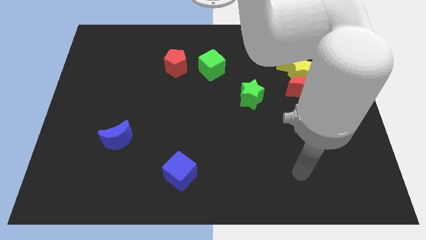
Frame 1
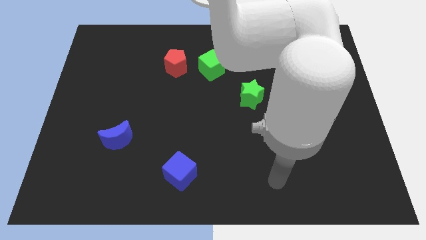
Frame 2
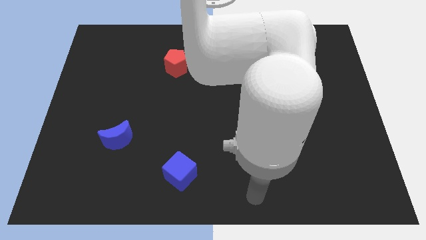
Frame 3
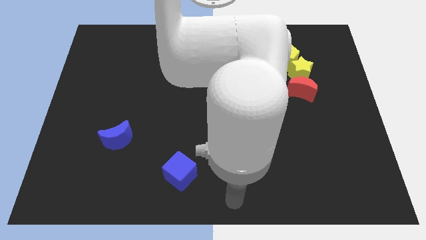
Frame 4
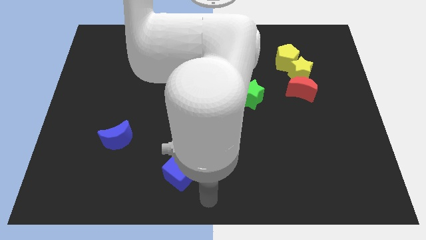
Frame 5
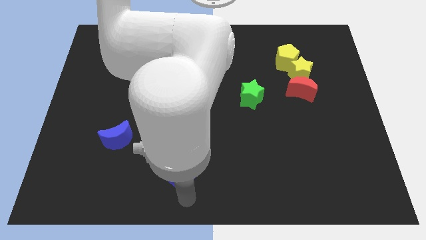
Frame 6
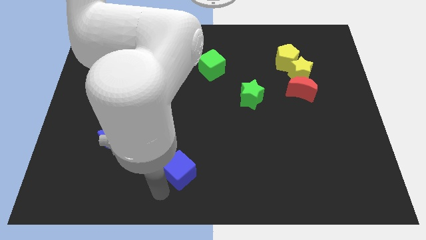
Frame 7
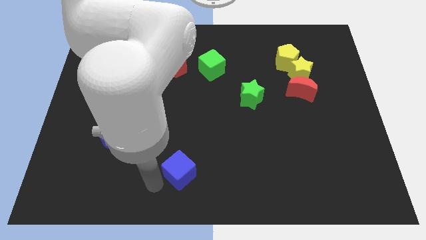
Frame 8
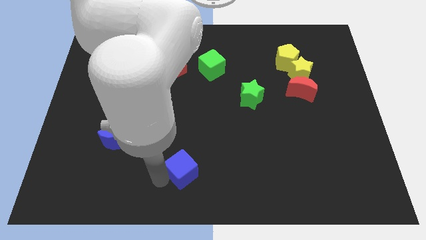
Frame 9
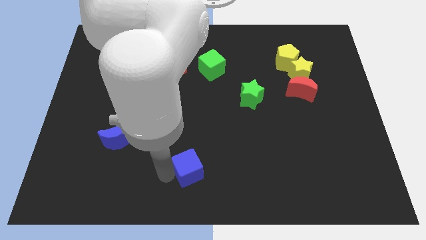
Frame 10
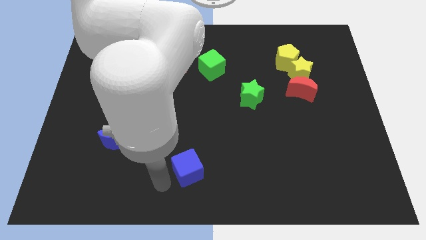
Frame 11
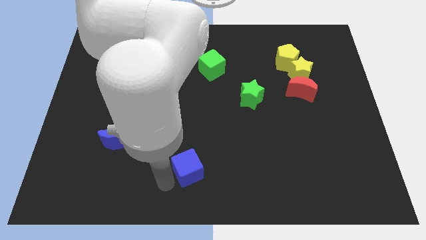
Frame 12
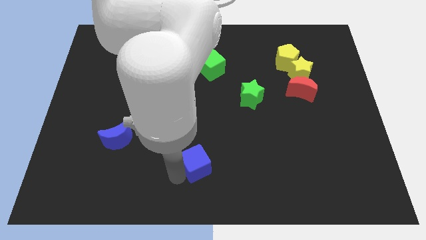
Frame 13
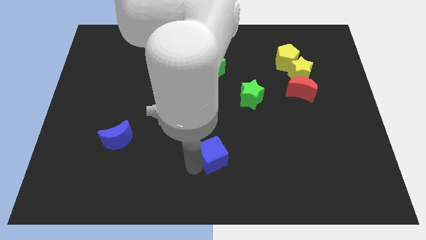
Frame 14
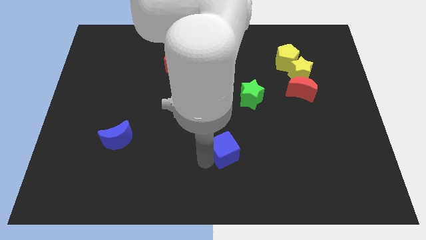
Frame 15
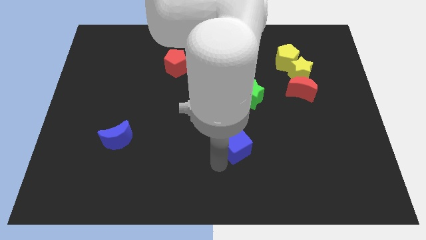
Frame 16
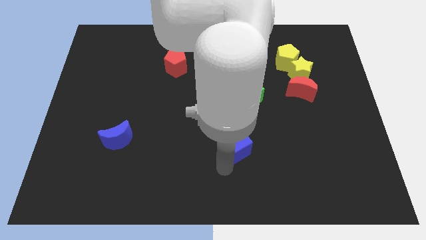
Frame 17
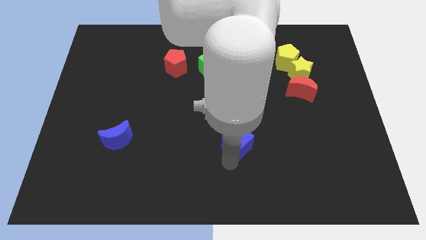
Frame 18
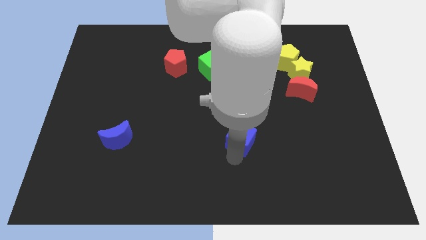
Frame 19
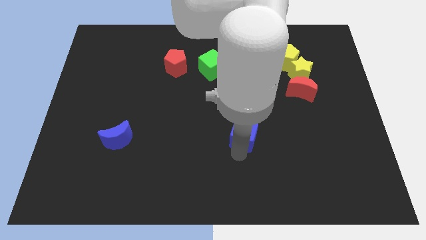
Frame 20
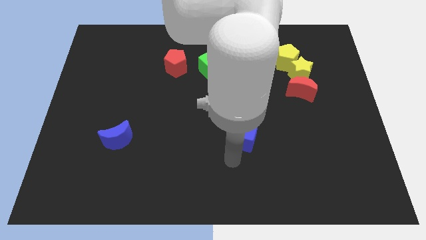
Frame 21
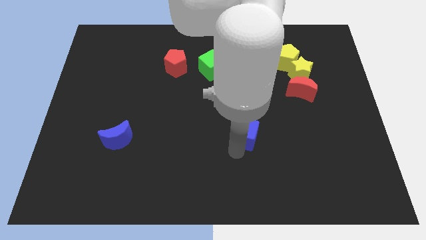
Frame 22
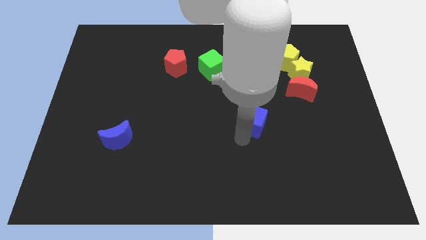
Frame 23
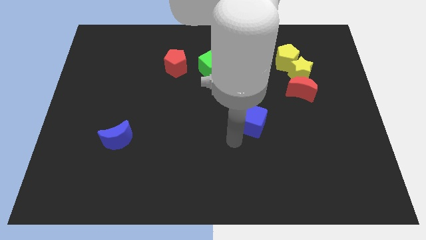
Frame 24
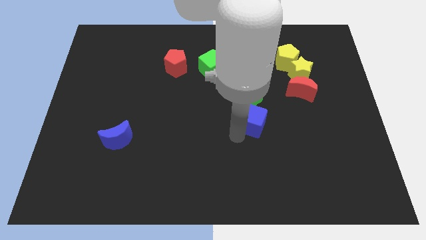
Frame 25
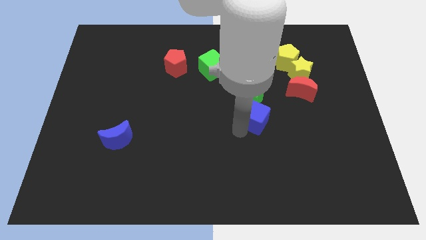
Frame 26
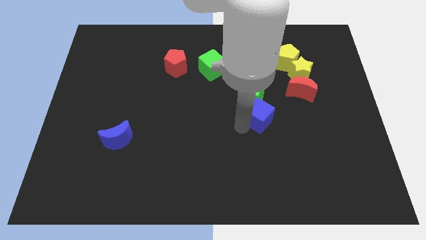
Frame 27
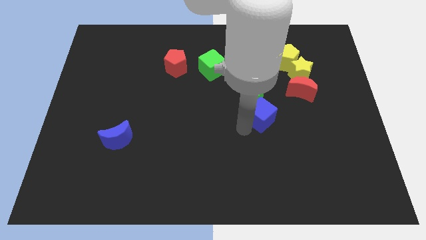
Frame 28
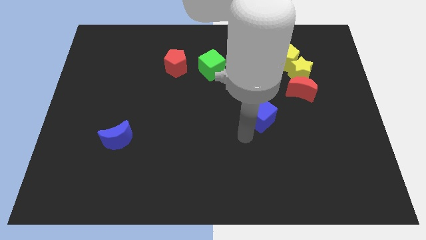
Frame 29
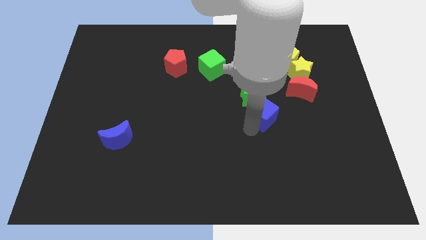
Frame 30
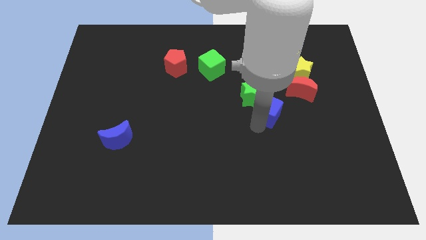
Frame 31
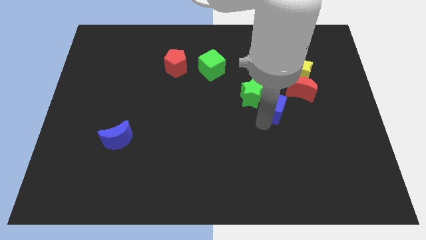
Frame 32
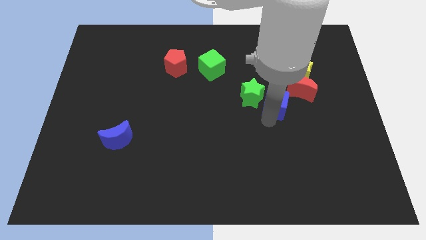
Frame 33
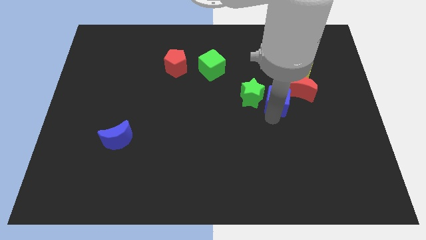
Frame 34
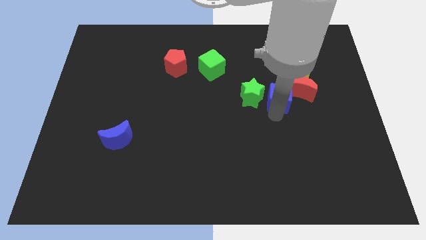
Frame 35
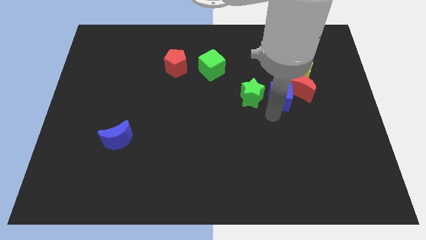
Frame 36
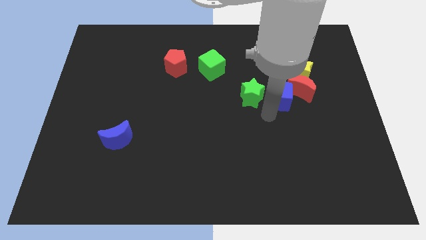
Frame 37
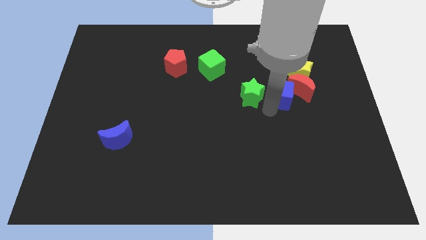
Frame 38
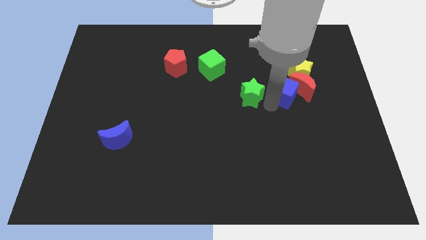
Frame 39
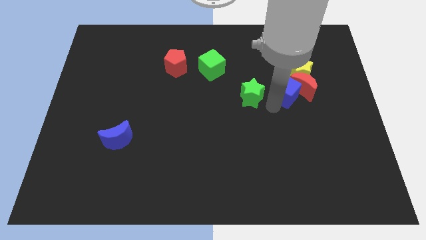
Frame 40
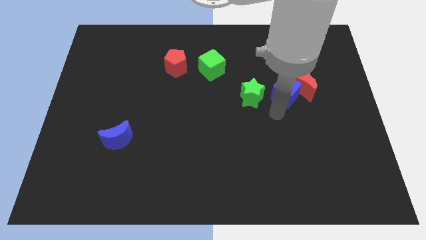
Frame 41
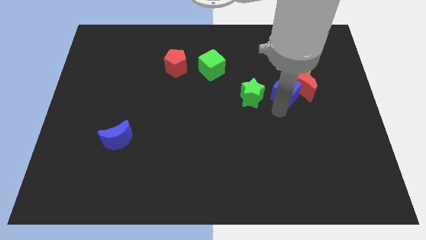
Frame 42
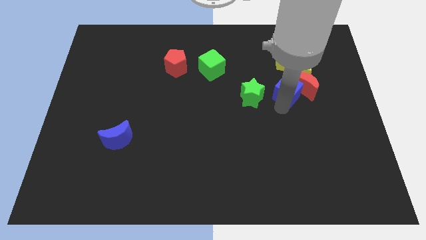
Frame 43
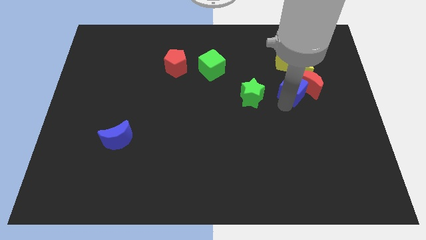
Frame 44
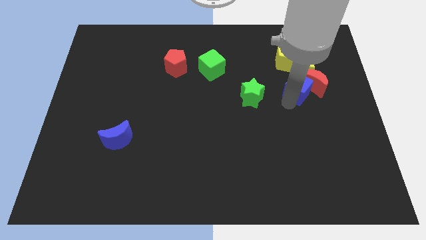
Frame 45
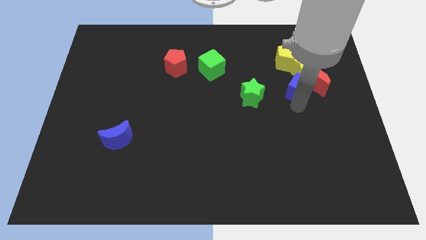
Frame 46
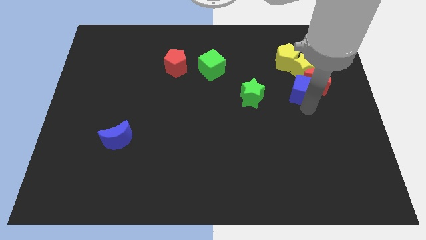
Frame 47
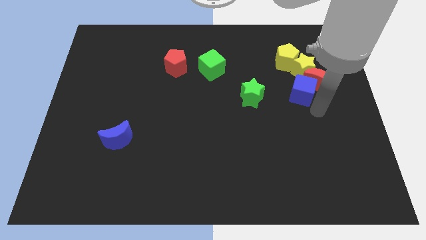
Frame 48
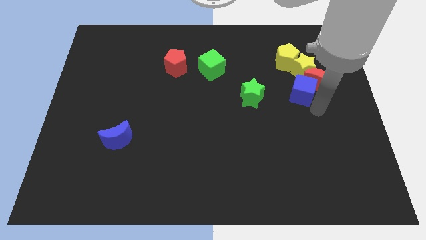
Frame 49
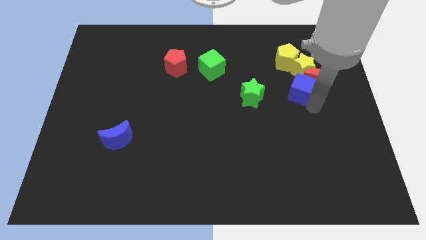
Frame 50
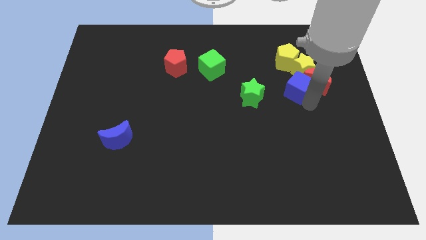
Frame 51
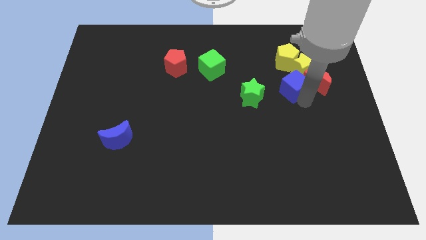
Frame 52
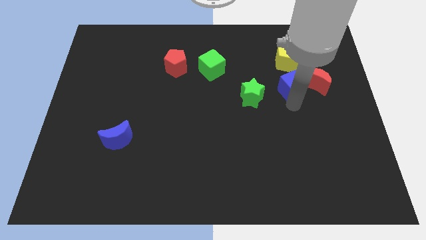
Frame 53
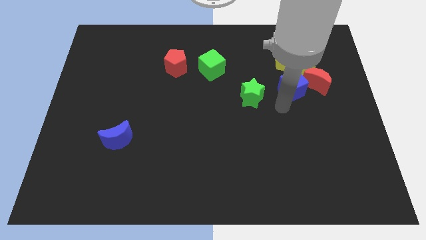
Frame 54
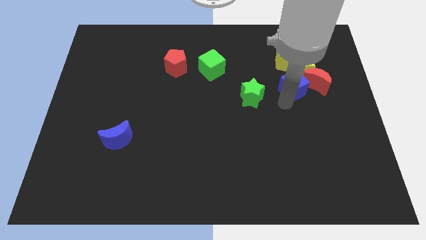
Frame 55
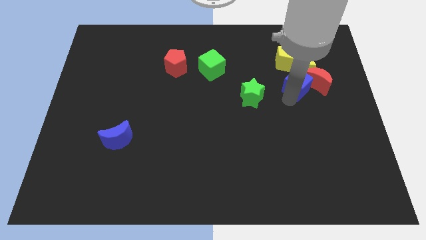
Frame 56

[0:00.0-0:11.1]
push the blue cube towards the yellow star

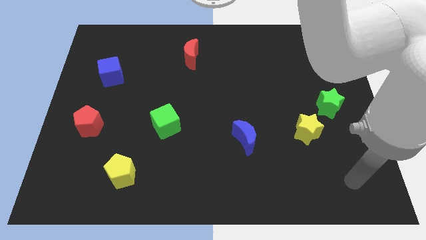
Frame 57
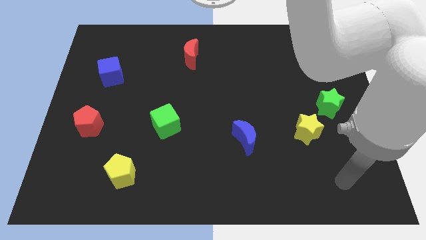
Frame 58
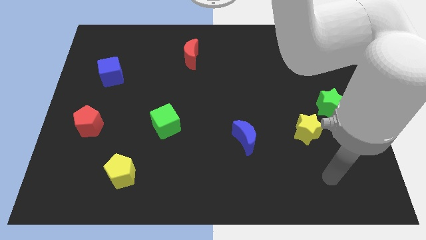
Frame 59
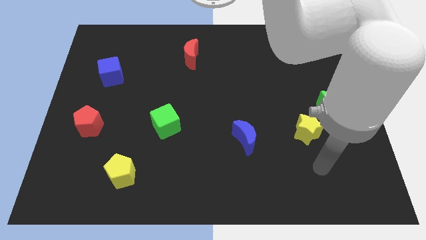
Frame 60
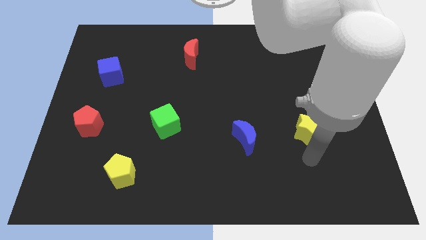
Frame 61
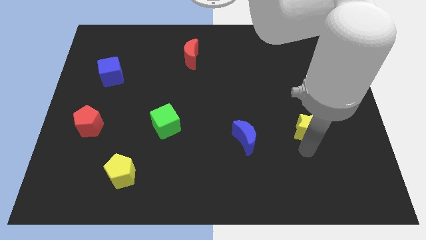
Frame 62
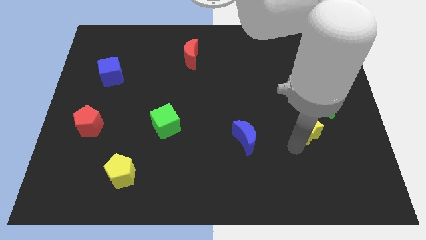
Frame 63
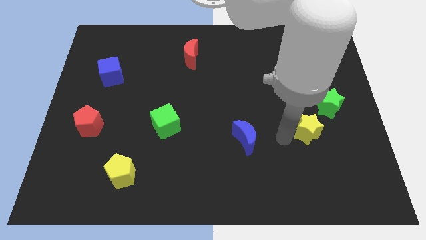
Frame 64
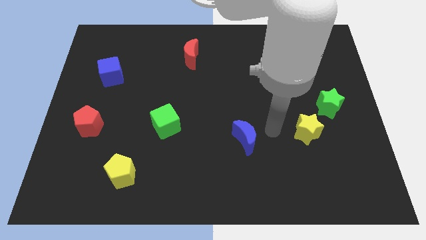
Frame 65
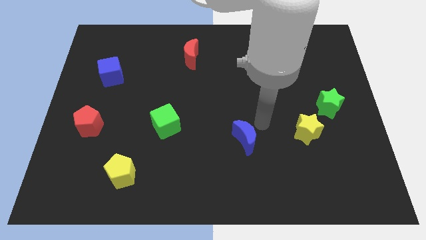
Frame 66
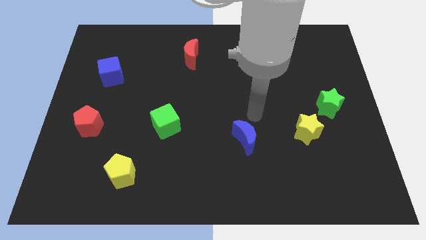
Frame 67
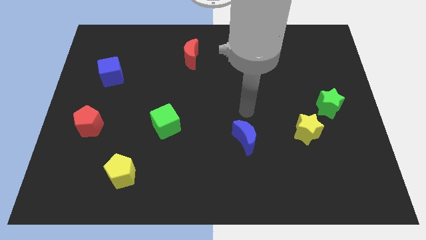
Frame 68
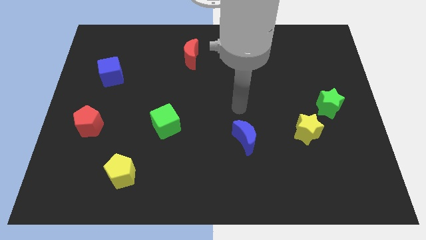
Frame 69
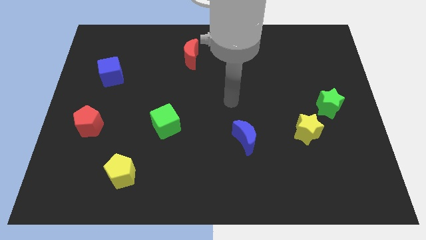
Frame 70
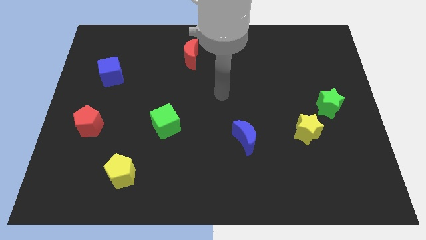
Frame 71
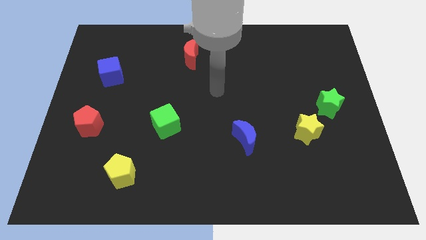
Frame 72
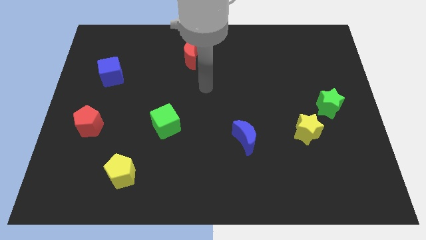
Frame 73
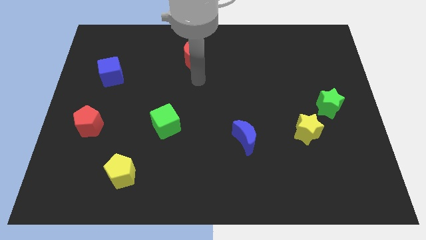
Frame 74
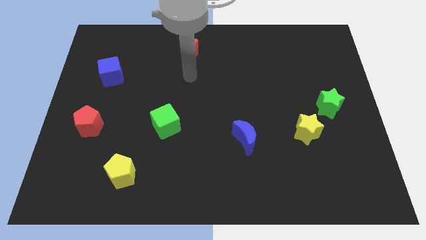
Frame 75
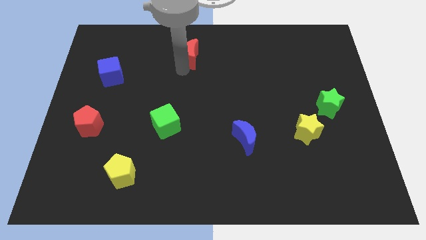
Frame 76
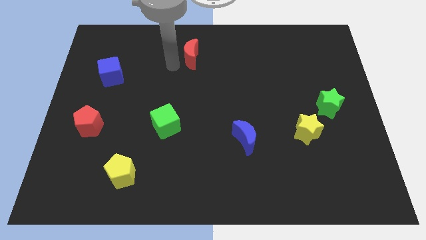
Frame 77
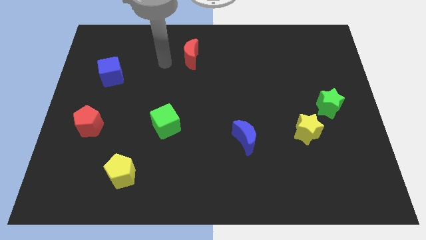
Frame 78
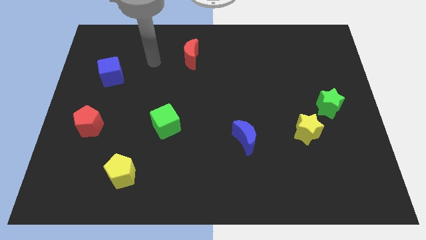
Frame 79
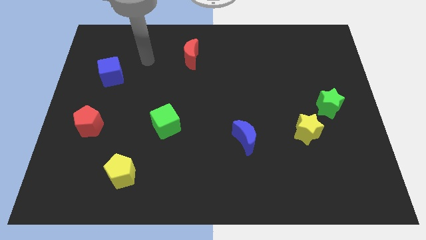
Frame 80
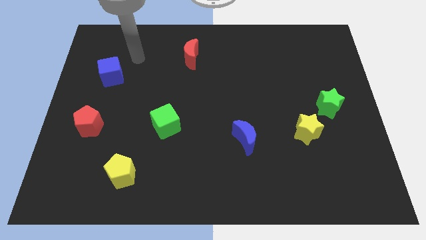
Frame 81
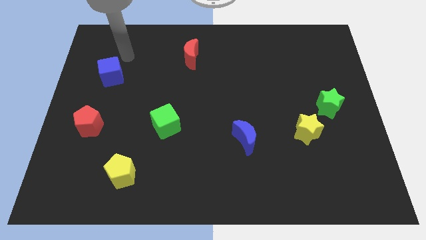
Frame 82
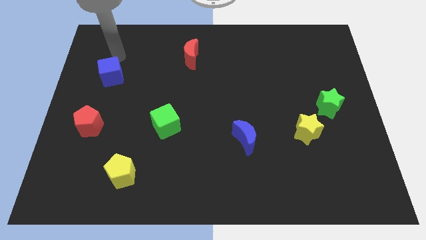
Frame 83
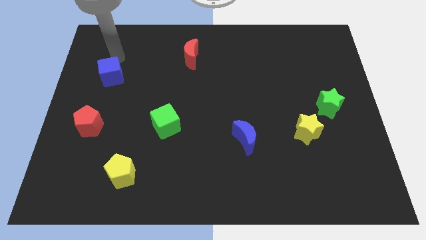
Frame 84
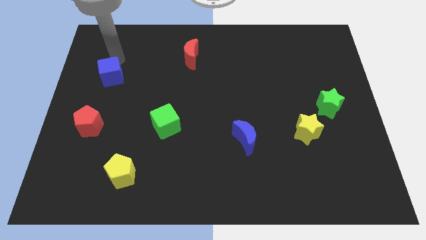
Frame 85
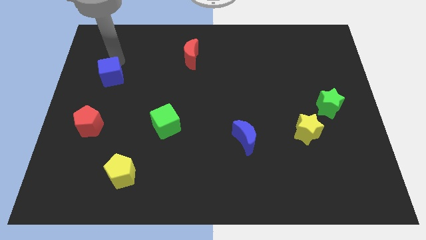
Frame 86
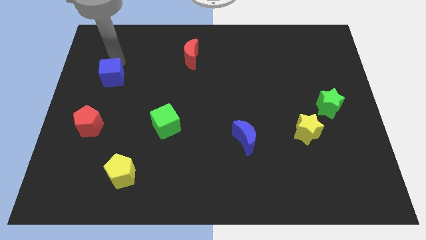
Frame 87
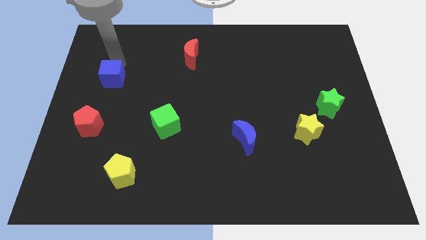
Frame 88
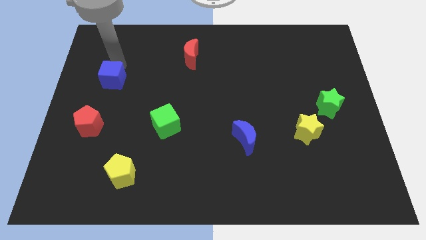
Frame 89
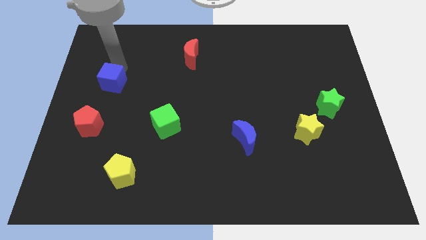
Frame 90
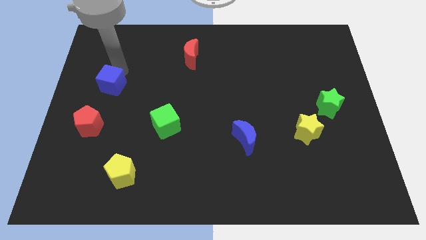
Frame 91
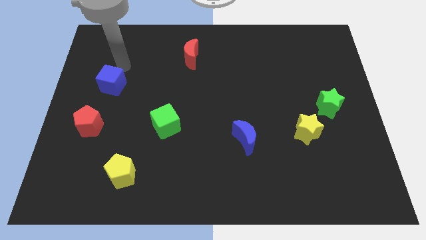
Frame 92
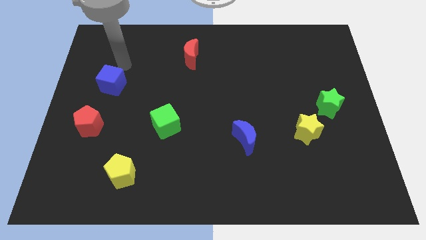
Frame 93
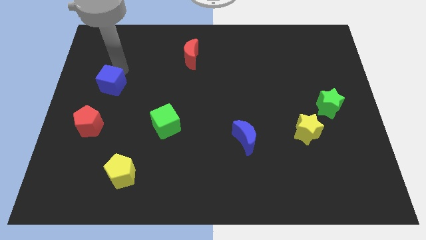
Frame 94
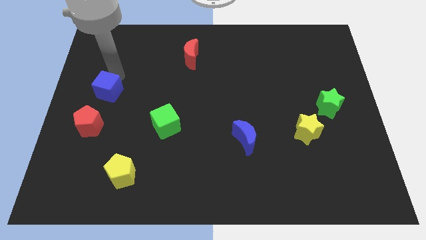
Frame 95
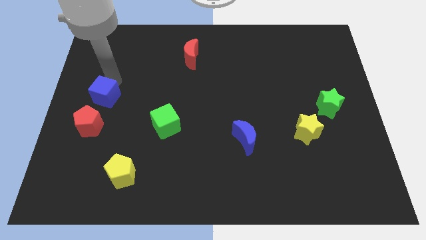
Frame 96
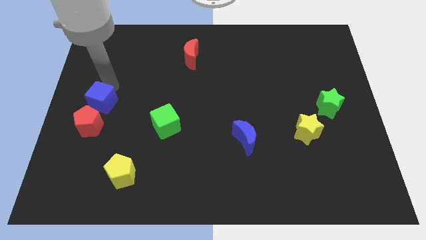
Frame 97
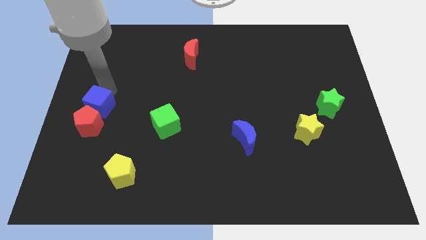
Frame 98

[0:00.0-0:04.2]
push the blue cube towards the red pentagon
